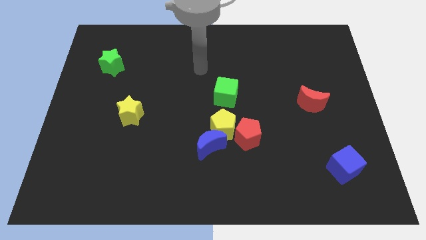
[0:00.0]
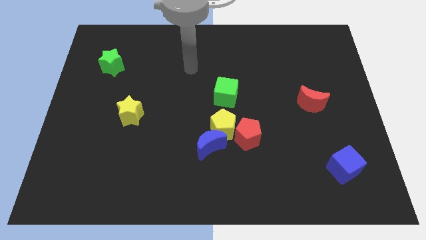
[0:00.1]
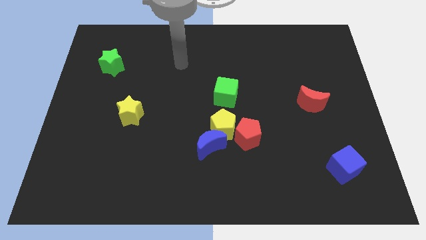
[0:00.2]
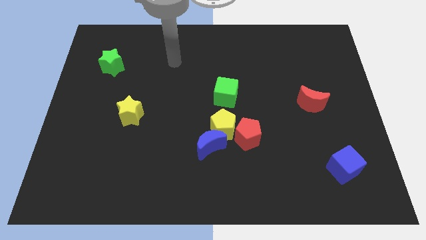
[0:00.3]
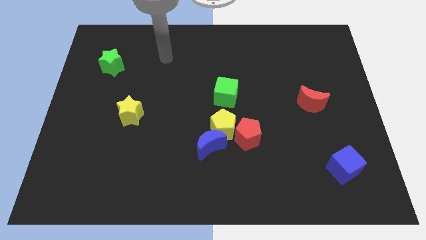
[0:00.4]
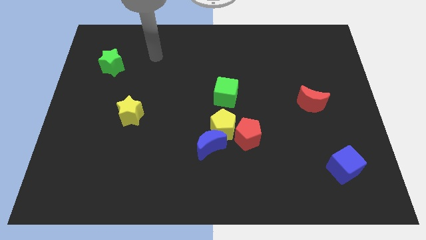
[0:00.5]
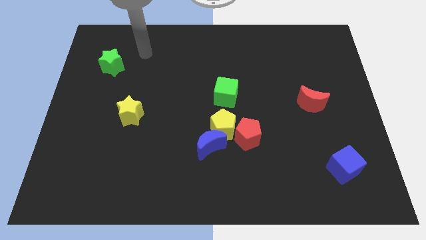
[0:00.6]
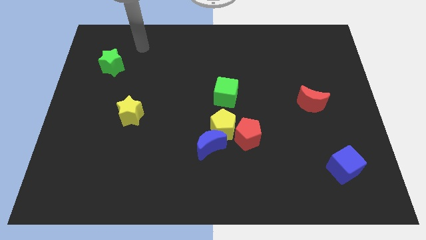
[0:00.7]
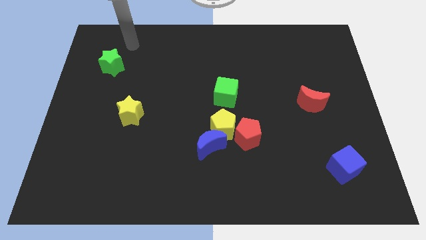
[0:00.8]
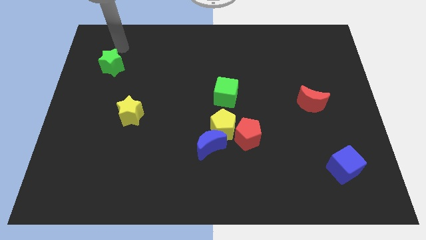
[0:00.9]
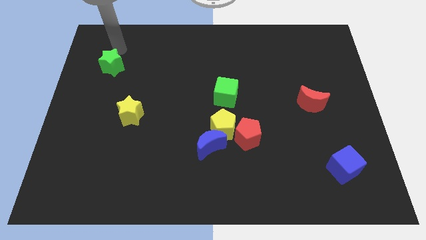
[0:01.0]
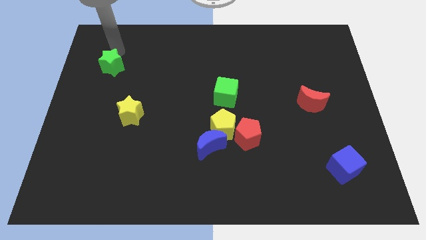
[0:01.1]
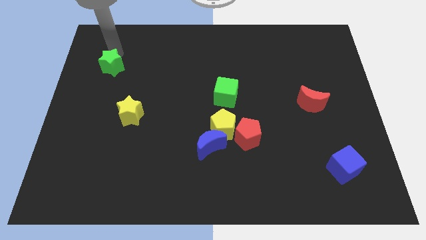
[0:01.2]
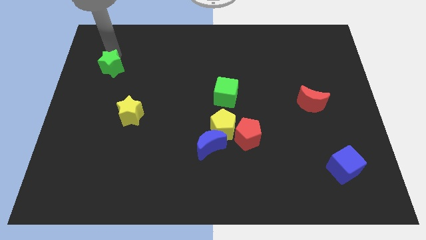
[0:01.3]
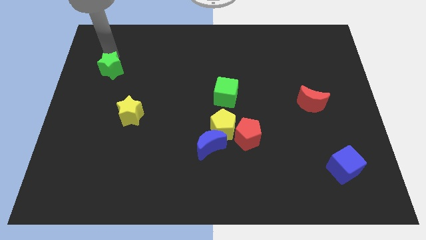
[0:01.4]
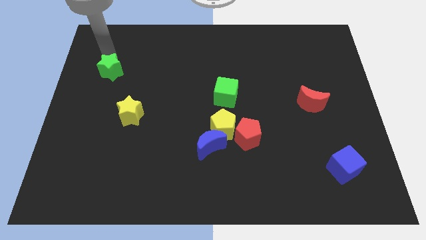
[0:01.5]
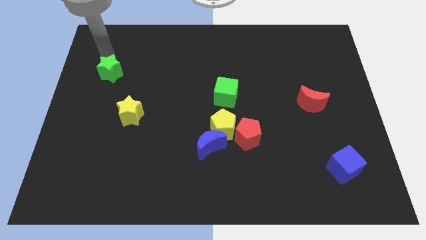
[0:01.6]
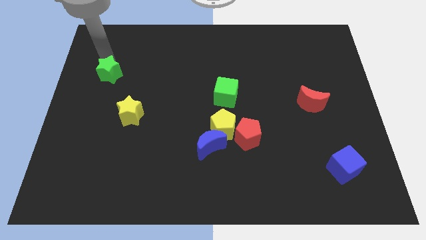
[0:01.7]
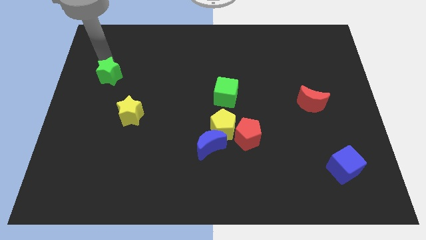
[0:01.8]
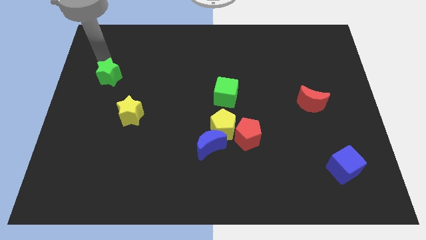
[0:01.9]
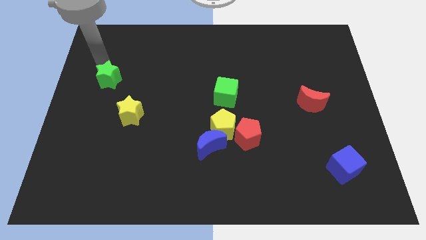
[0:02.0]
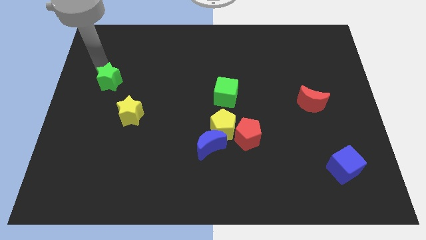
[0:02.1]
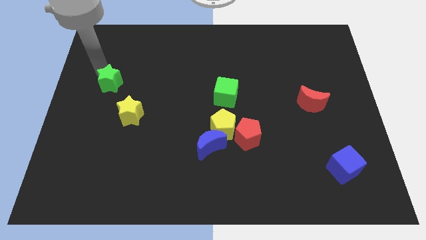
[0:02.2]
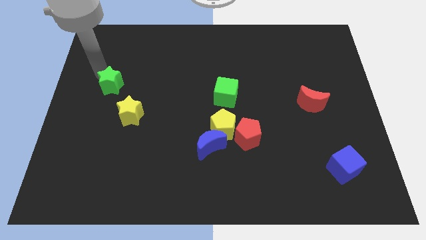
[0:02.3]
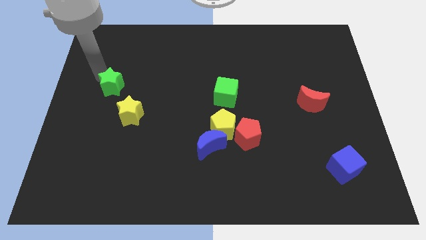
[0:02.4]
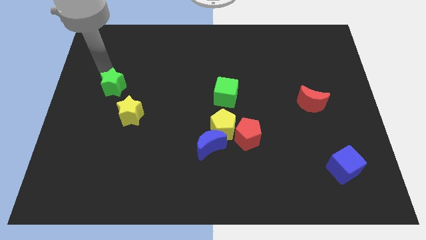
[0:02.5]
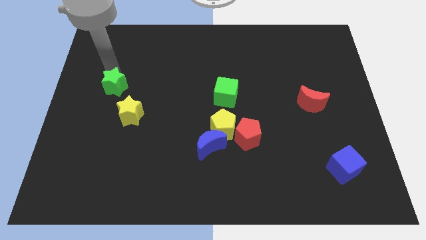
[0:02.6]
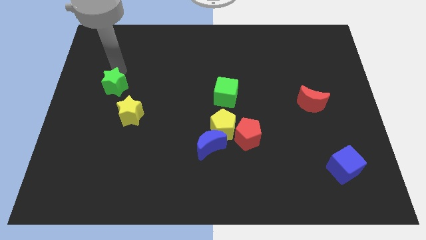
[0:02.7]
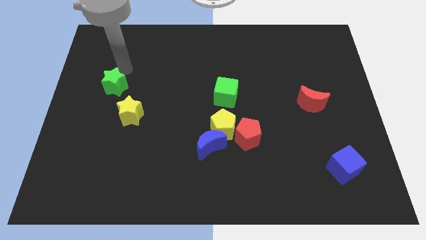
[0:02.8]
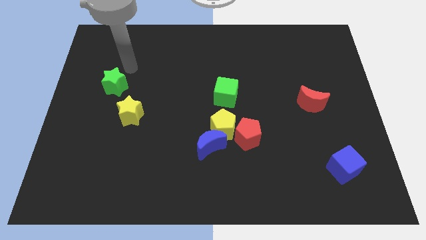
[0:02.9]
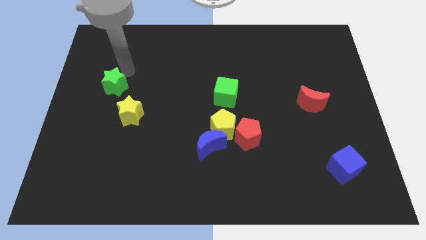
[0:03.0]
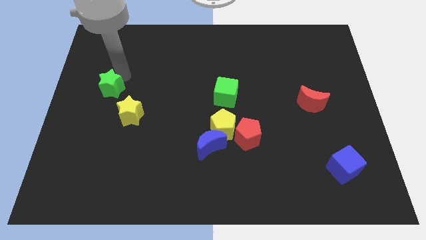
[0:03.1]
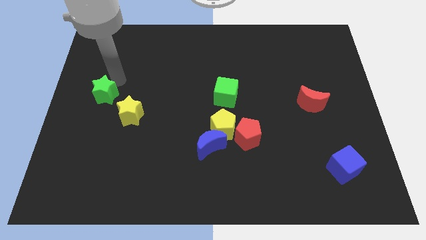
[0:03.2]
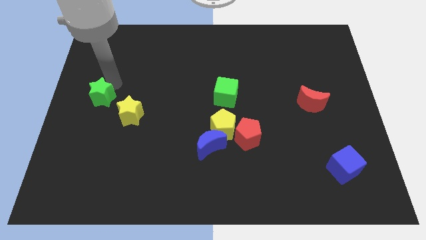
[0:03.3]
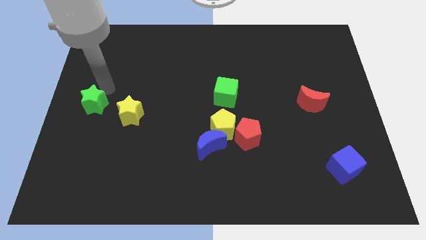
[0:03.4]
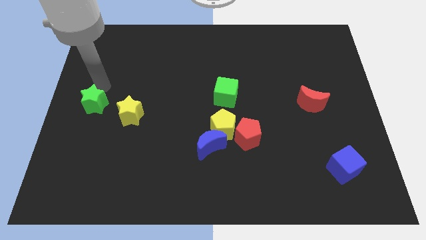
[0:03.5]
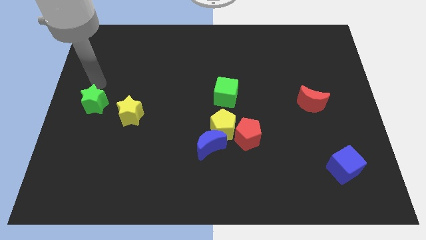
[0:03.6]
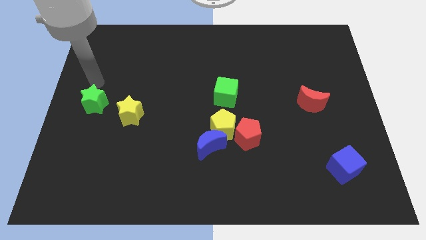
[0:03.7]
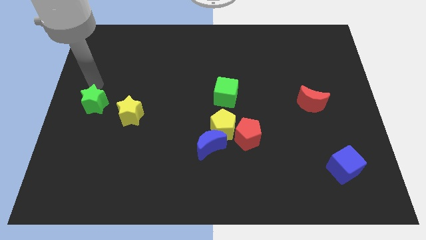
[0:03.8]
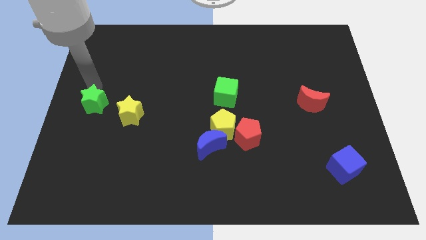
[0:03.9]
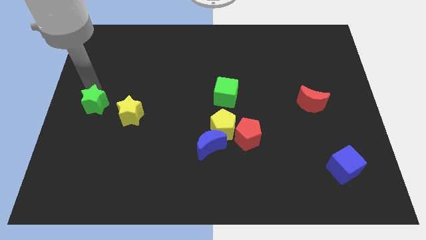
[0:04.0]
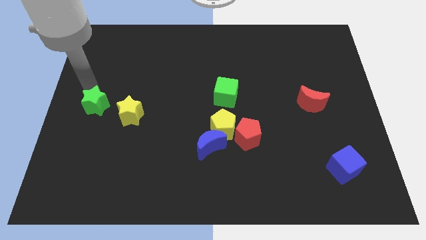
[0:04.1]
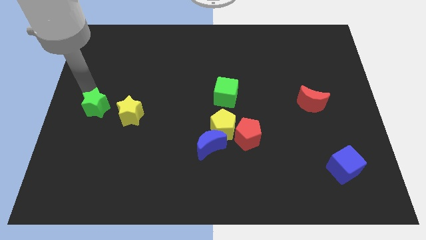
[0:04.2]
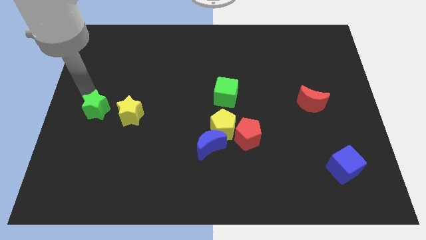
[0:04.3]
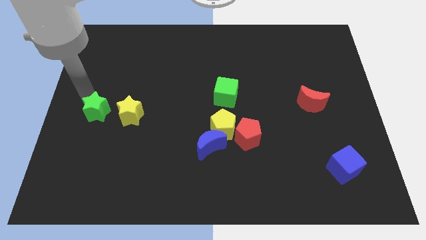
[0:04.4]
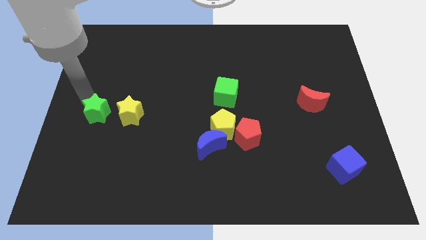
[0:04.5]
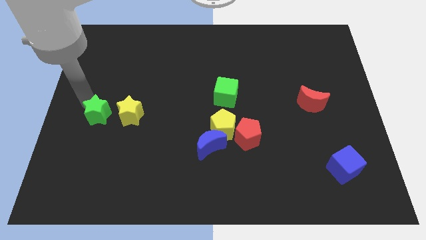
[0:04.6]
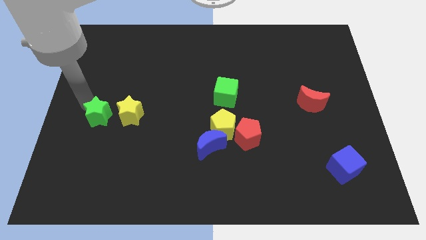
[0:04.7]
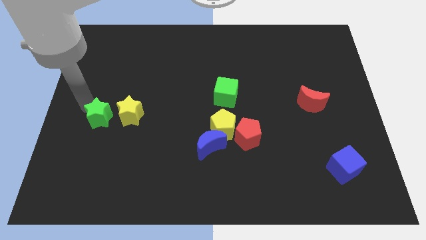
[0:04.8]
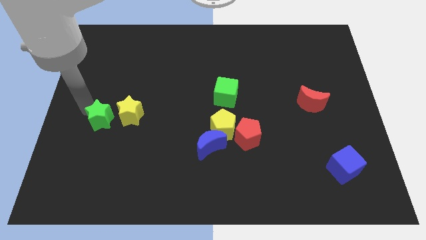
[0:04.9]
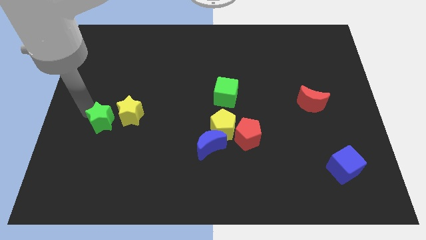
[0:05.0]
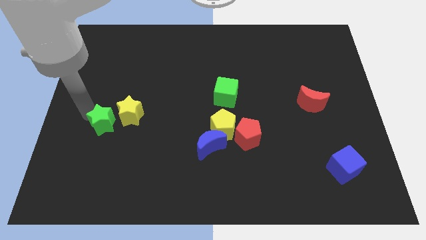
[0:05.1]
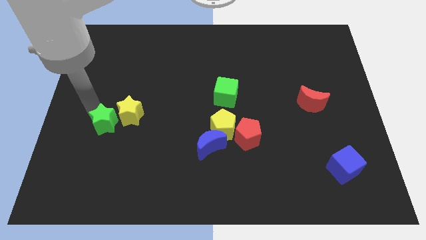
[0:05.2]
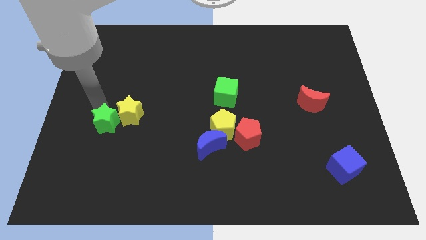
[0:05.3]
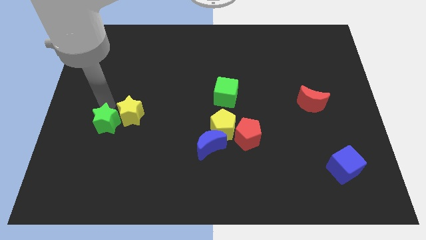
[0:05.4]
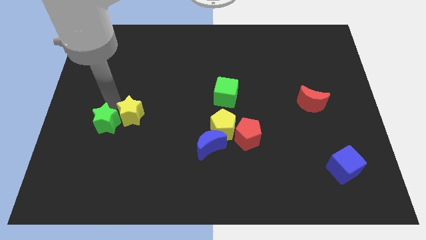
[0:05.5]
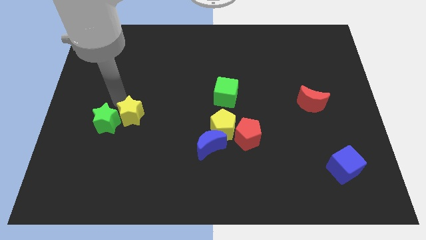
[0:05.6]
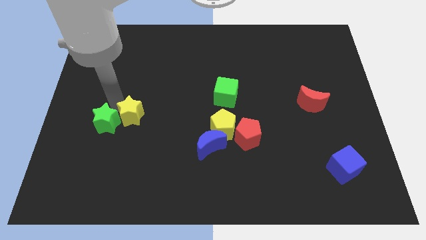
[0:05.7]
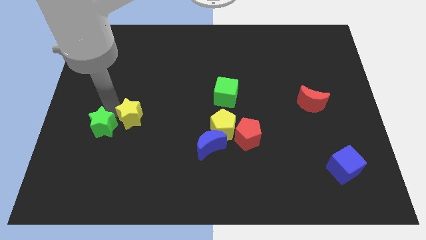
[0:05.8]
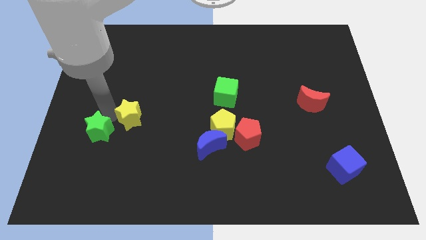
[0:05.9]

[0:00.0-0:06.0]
push the green star down

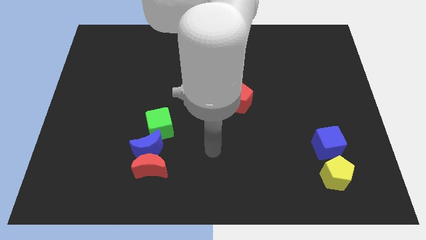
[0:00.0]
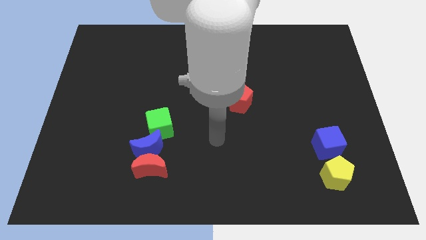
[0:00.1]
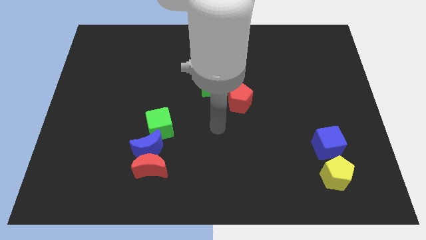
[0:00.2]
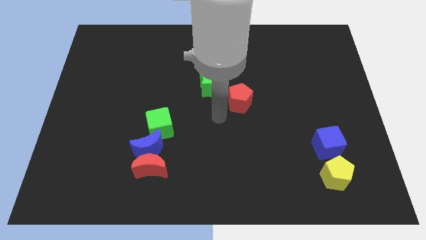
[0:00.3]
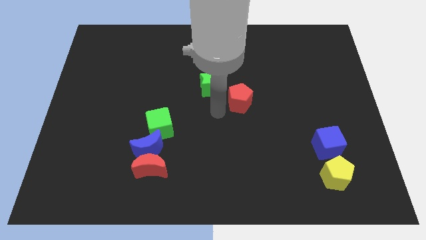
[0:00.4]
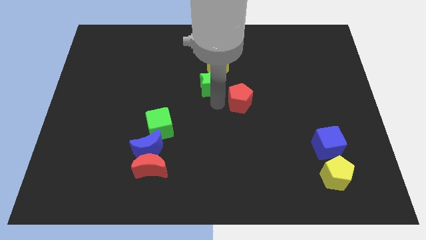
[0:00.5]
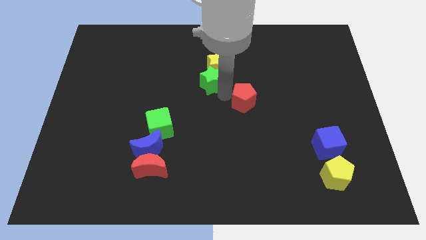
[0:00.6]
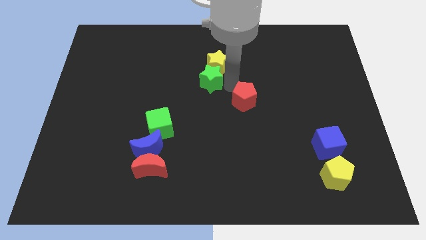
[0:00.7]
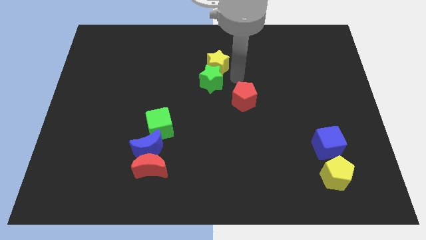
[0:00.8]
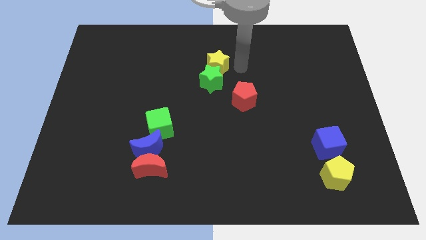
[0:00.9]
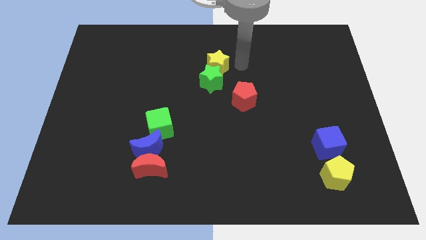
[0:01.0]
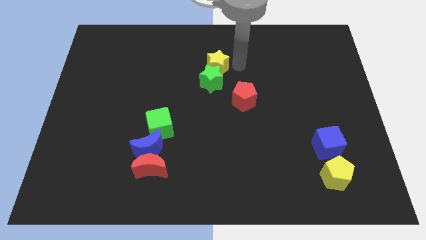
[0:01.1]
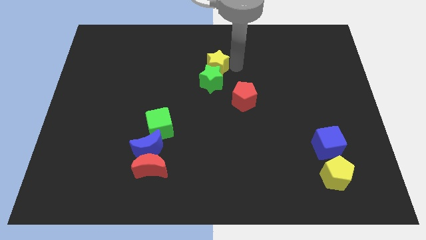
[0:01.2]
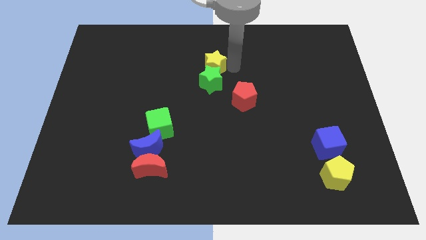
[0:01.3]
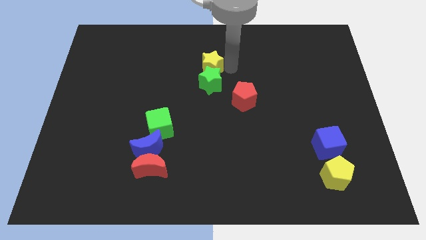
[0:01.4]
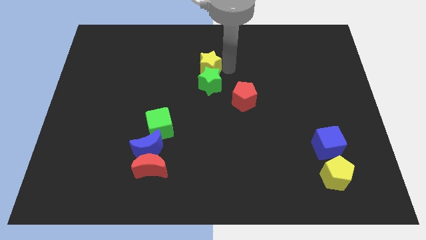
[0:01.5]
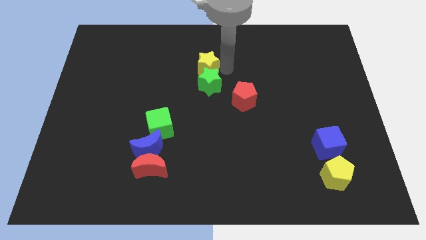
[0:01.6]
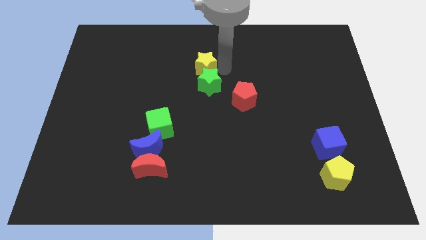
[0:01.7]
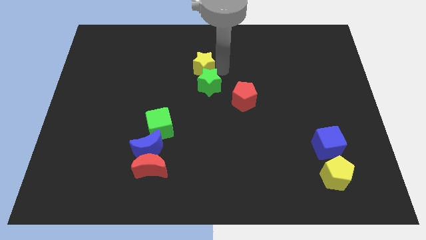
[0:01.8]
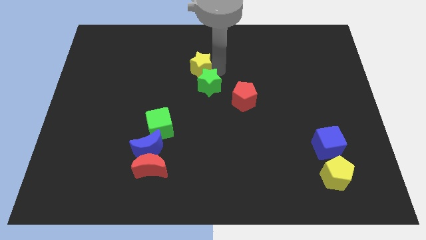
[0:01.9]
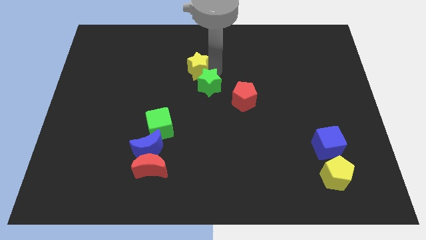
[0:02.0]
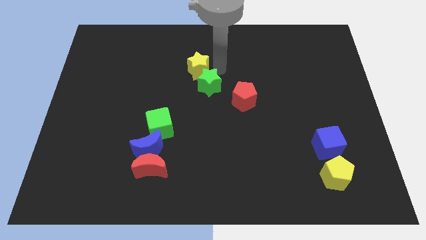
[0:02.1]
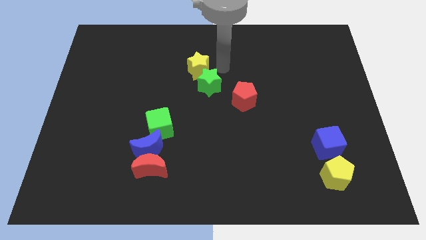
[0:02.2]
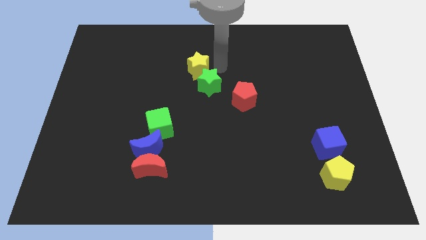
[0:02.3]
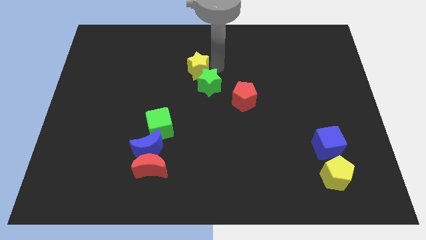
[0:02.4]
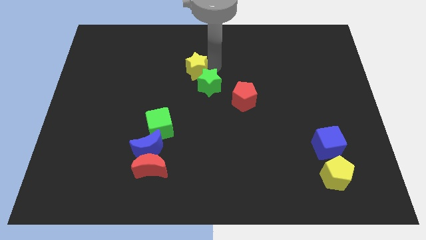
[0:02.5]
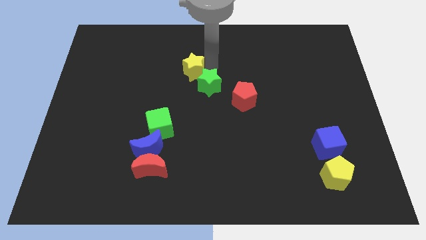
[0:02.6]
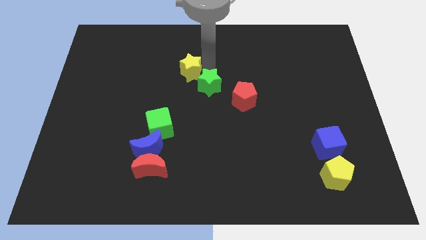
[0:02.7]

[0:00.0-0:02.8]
slide the yellow star to the left slightly
